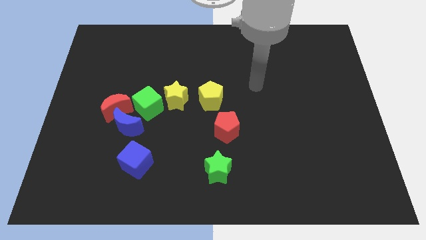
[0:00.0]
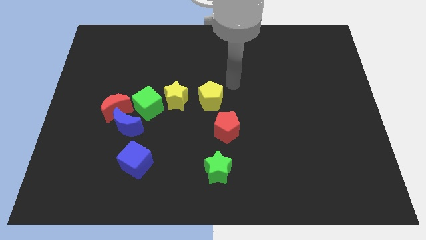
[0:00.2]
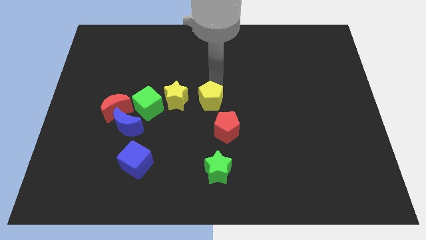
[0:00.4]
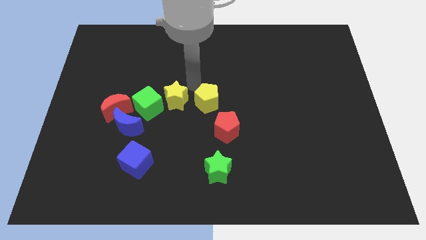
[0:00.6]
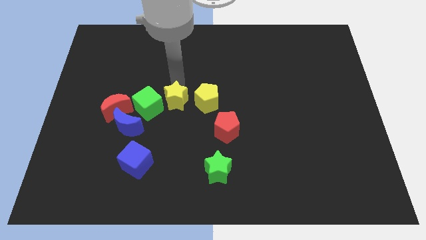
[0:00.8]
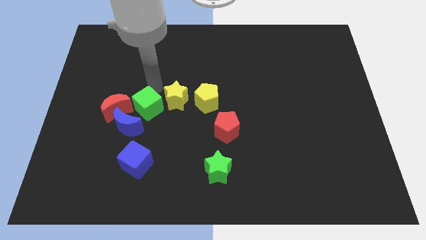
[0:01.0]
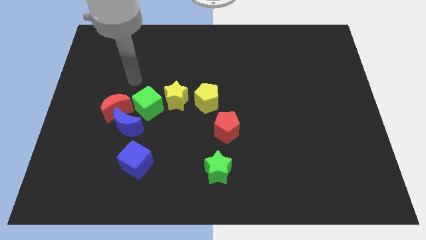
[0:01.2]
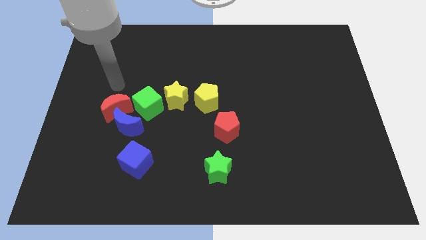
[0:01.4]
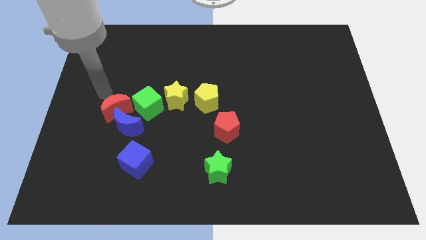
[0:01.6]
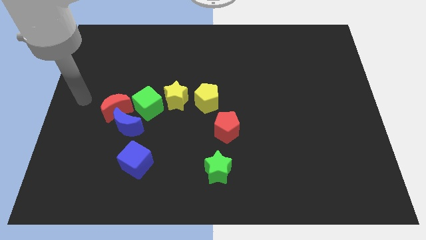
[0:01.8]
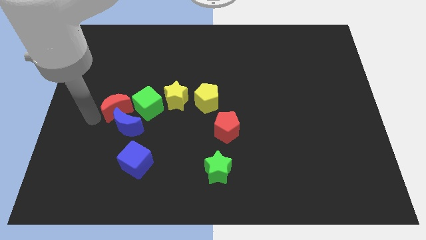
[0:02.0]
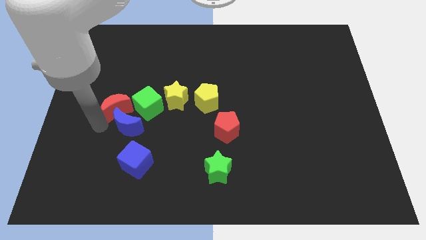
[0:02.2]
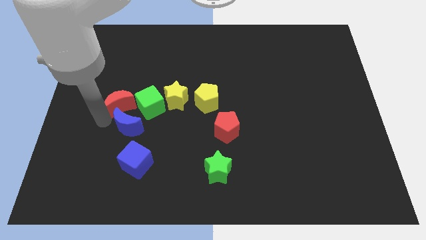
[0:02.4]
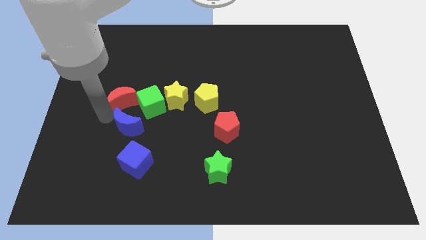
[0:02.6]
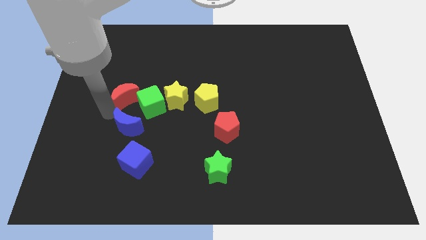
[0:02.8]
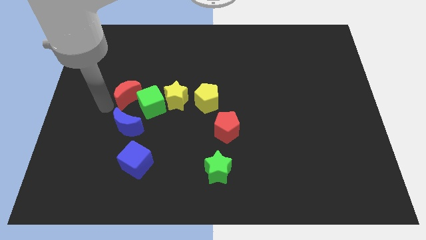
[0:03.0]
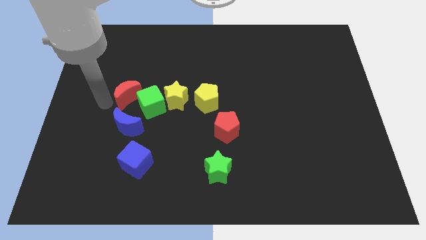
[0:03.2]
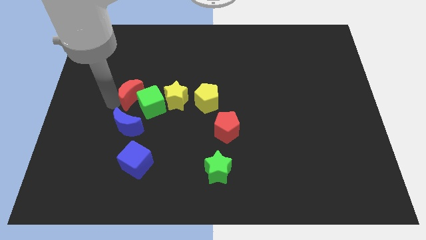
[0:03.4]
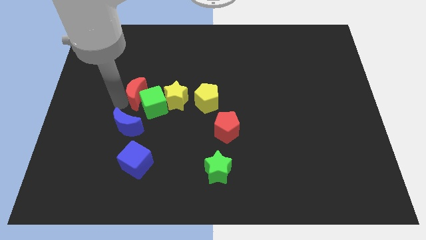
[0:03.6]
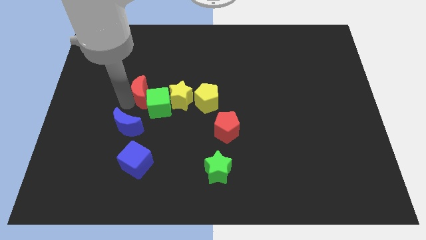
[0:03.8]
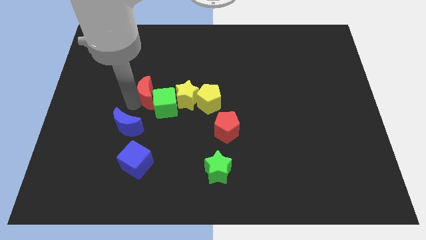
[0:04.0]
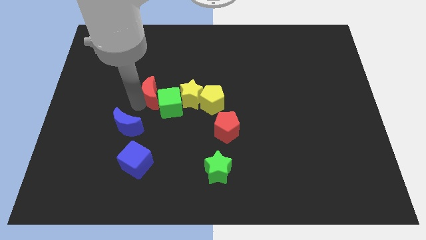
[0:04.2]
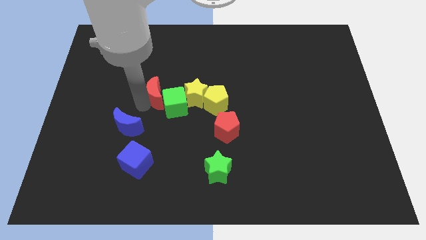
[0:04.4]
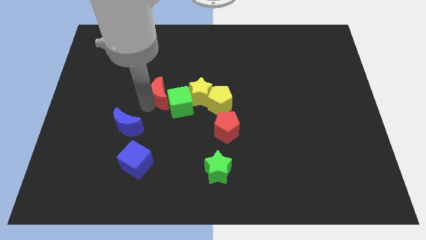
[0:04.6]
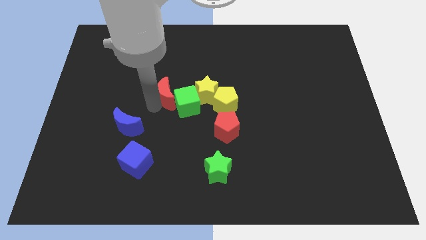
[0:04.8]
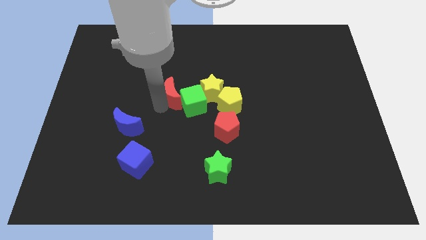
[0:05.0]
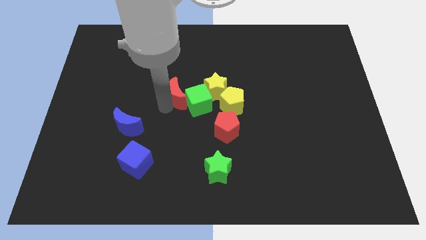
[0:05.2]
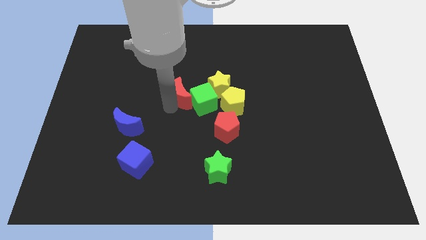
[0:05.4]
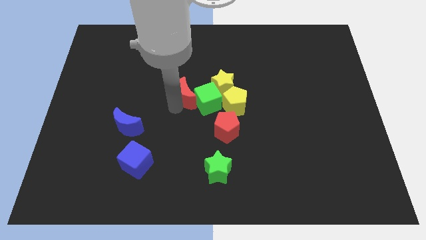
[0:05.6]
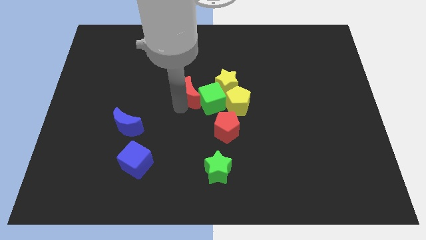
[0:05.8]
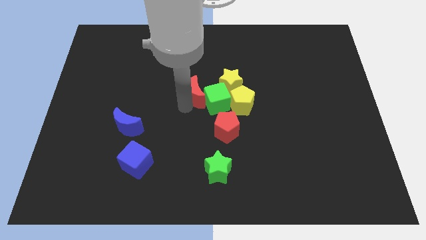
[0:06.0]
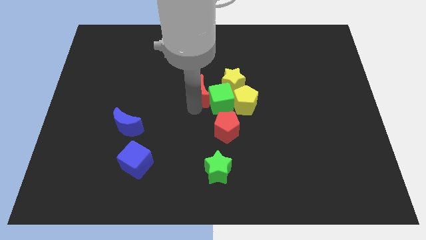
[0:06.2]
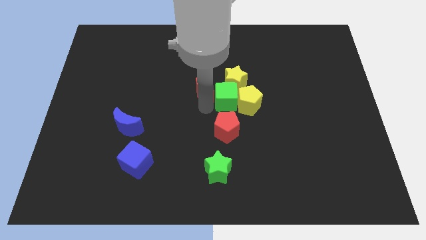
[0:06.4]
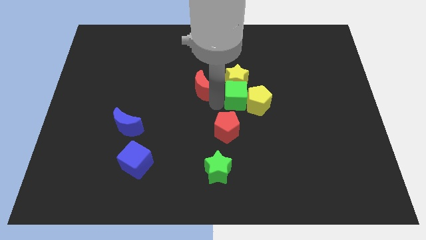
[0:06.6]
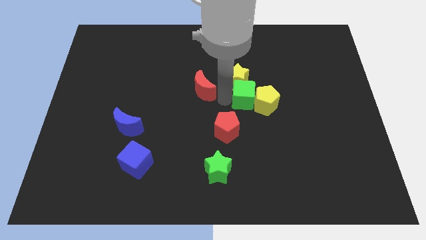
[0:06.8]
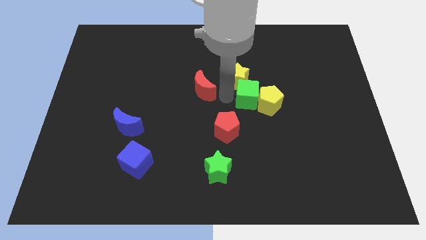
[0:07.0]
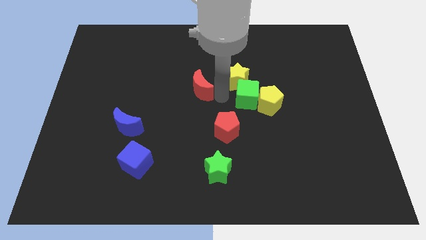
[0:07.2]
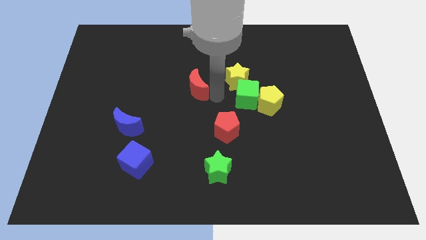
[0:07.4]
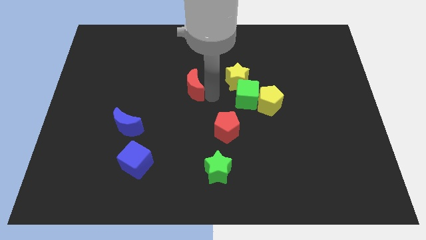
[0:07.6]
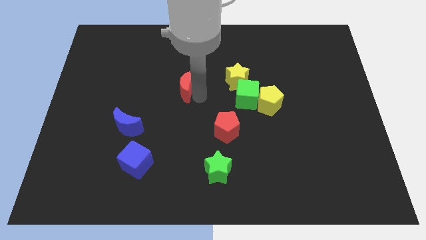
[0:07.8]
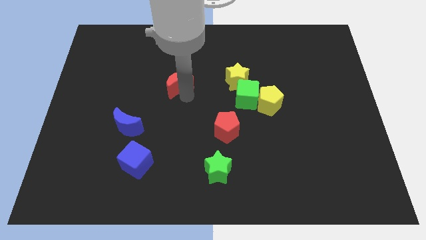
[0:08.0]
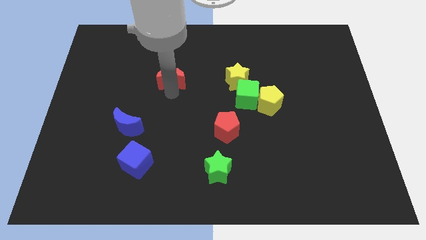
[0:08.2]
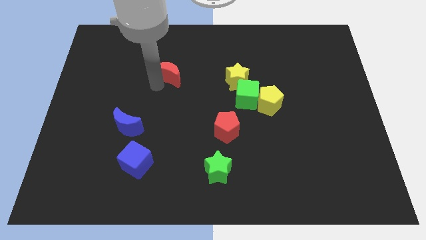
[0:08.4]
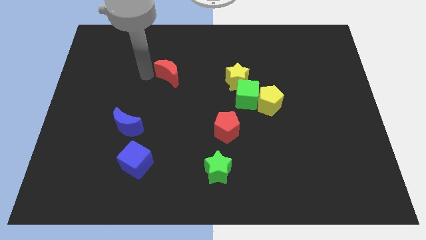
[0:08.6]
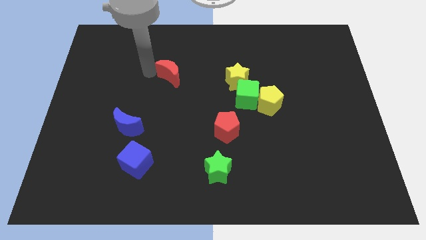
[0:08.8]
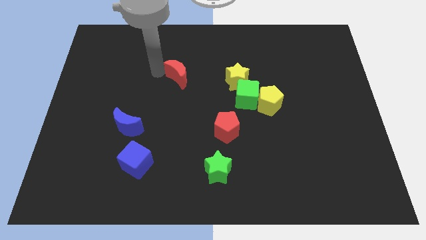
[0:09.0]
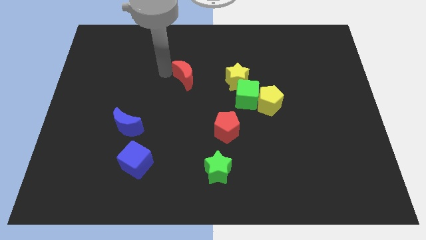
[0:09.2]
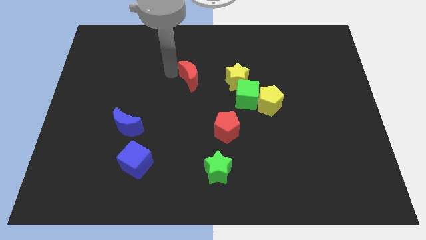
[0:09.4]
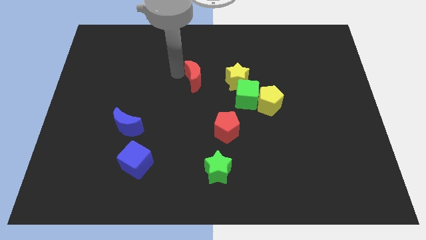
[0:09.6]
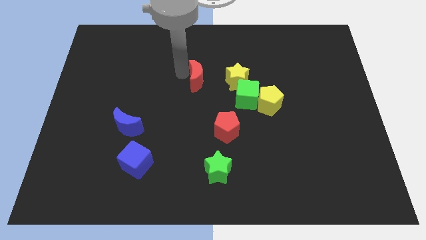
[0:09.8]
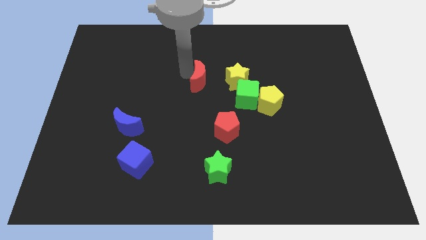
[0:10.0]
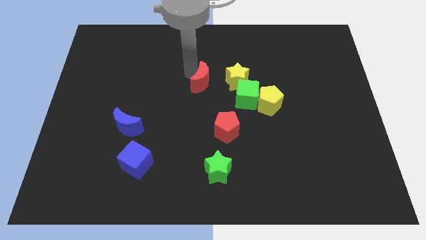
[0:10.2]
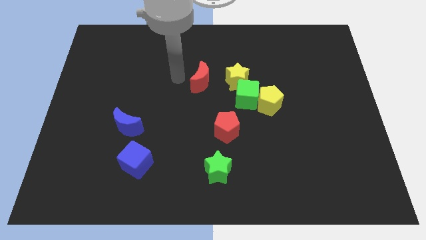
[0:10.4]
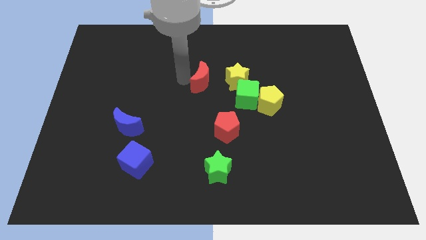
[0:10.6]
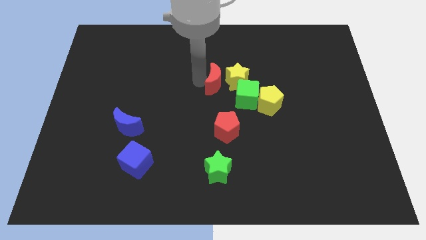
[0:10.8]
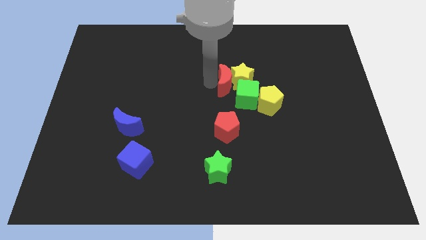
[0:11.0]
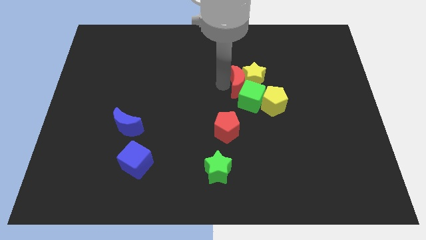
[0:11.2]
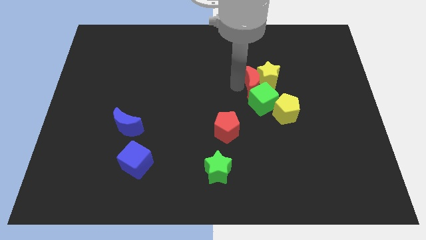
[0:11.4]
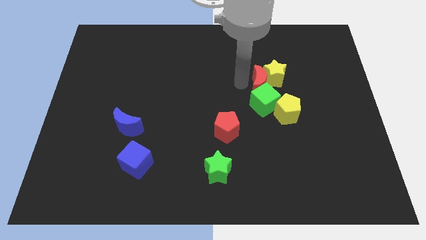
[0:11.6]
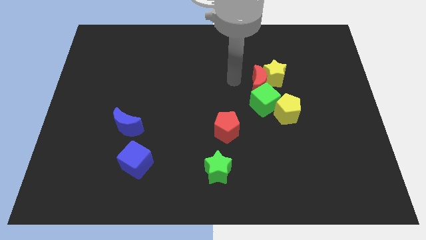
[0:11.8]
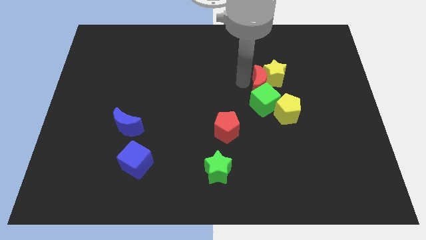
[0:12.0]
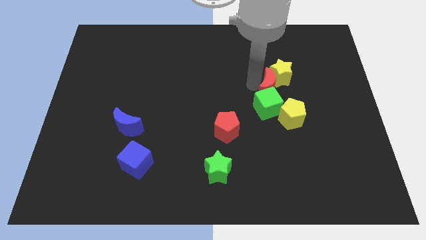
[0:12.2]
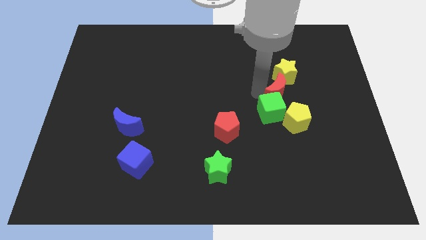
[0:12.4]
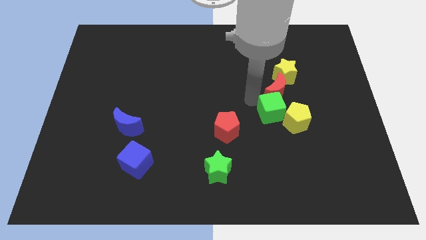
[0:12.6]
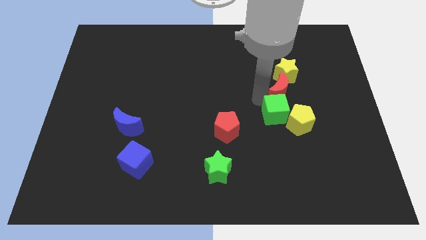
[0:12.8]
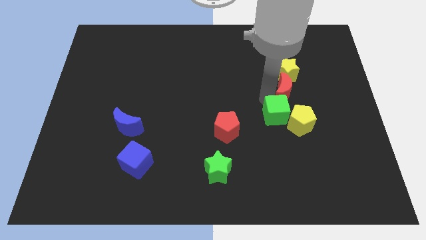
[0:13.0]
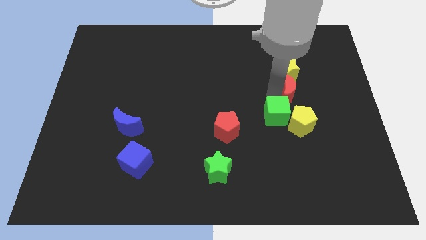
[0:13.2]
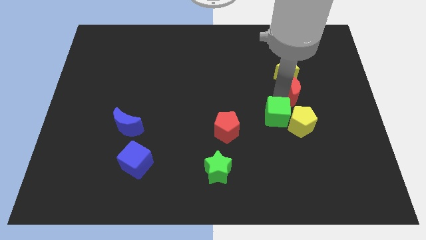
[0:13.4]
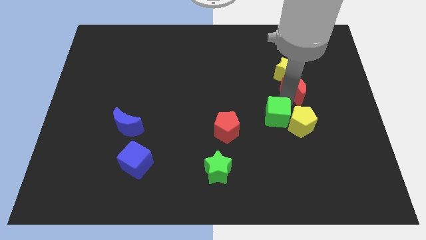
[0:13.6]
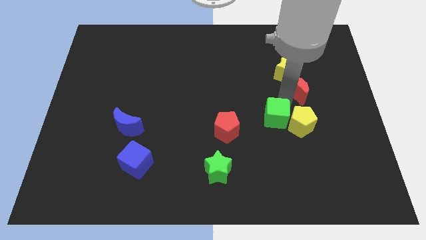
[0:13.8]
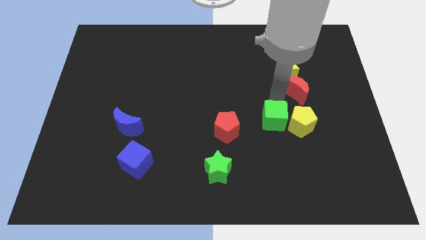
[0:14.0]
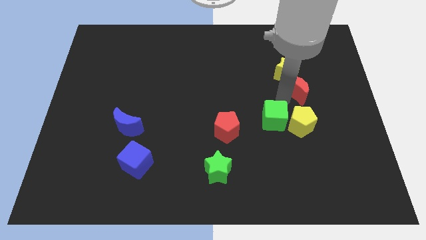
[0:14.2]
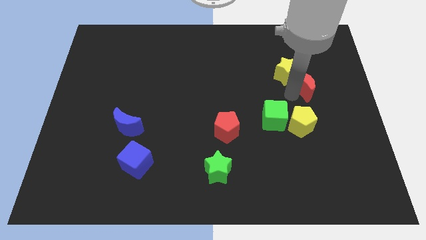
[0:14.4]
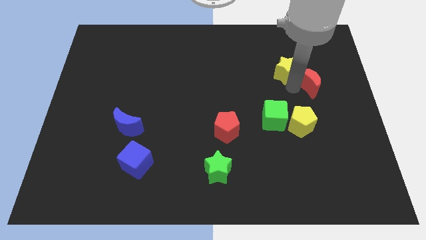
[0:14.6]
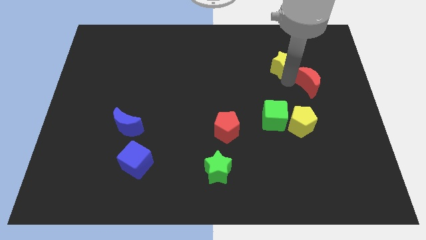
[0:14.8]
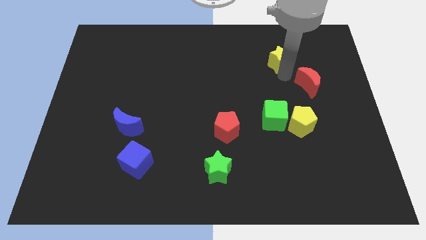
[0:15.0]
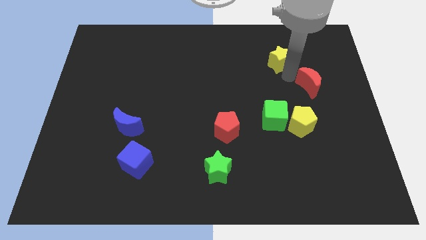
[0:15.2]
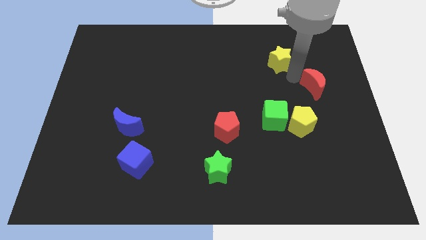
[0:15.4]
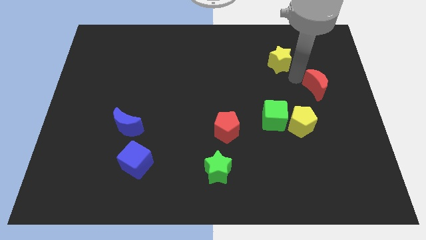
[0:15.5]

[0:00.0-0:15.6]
slide the red moon to the right side of the board
